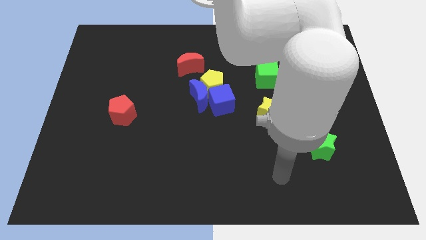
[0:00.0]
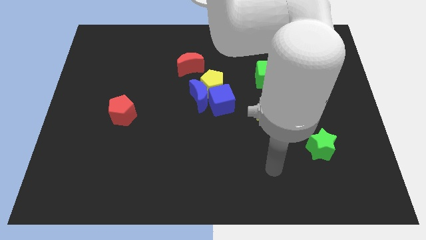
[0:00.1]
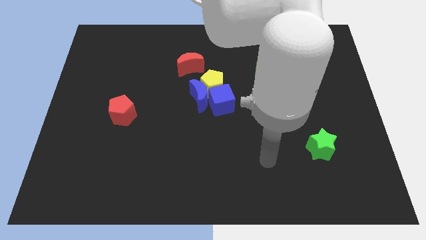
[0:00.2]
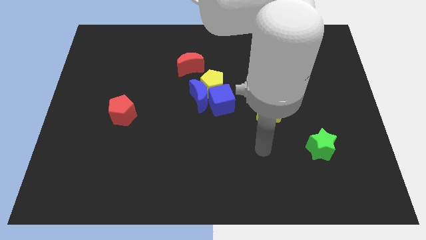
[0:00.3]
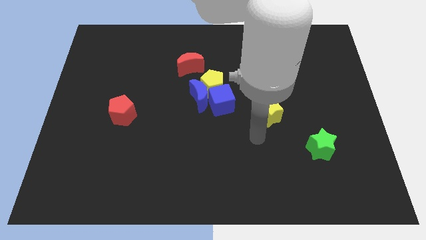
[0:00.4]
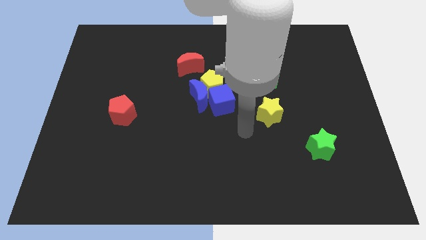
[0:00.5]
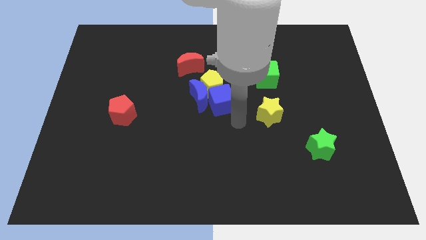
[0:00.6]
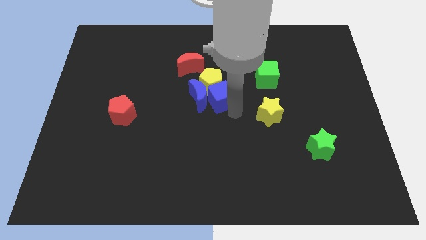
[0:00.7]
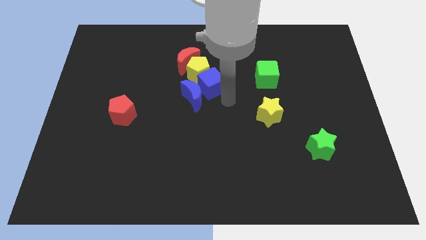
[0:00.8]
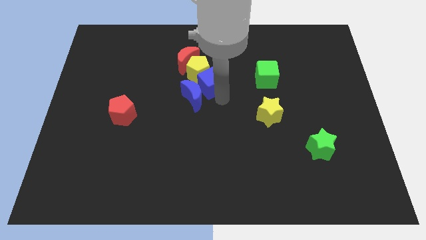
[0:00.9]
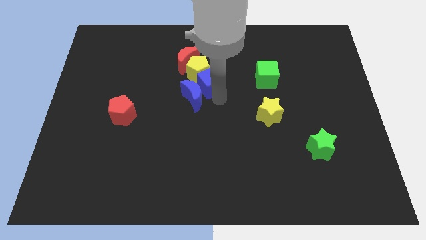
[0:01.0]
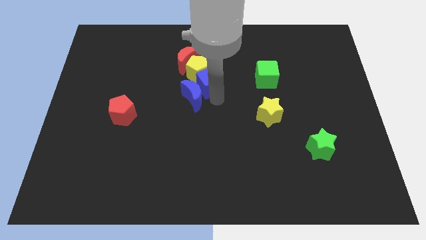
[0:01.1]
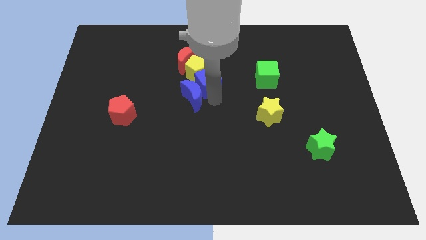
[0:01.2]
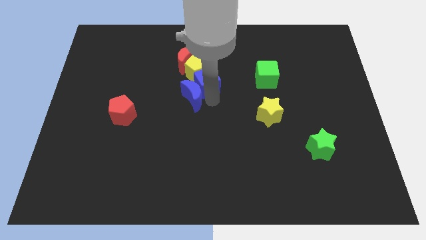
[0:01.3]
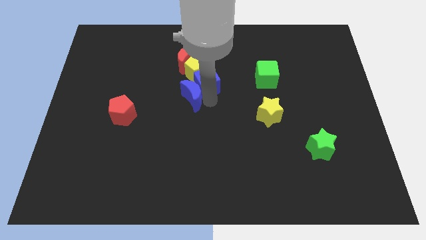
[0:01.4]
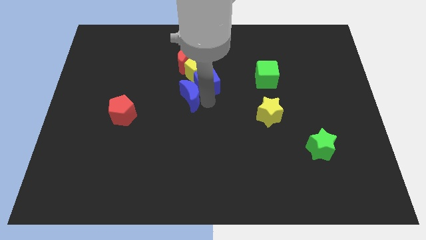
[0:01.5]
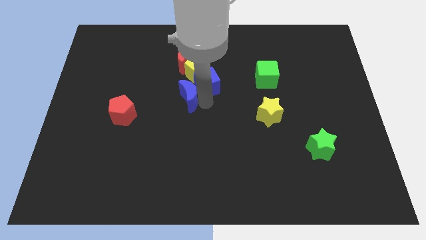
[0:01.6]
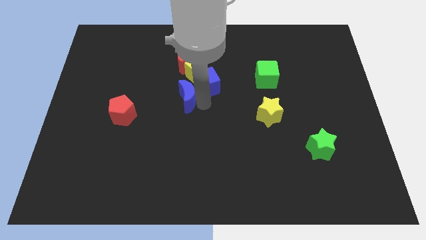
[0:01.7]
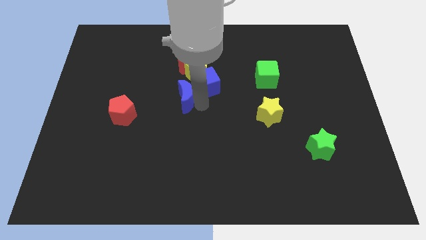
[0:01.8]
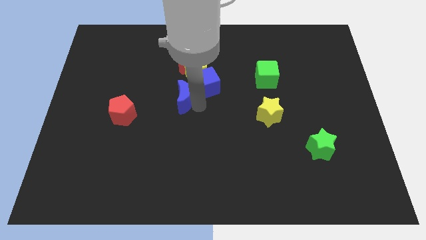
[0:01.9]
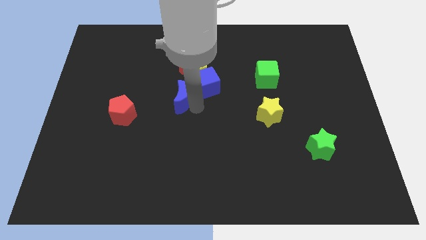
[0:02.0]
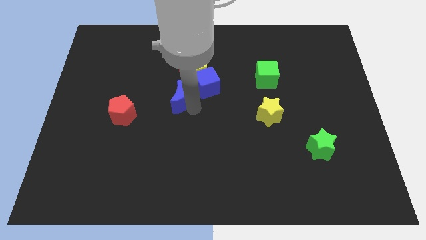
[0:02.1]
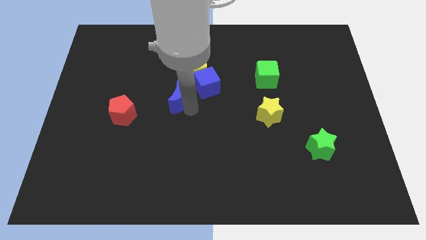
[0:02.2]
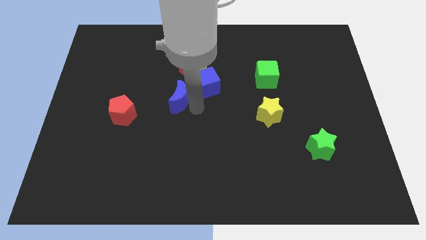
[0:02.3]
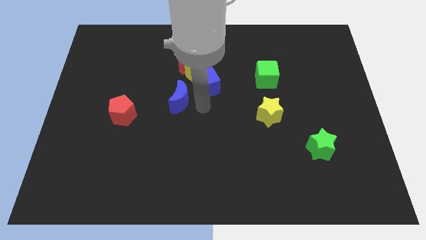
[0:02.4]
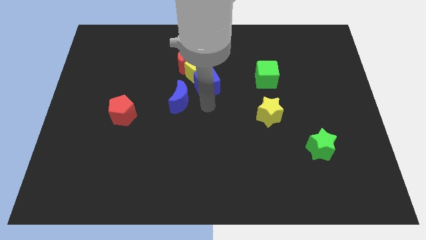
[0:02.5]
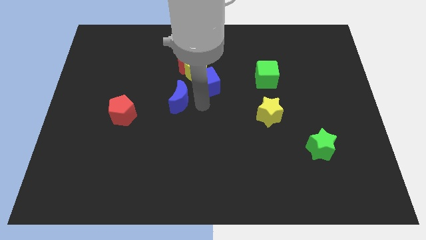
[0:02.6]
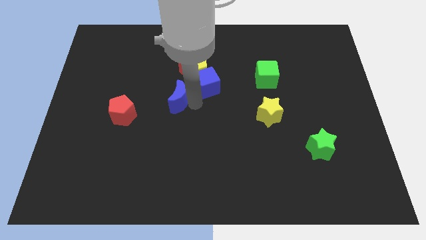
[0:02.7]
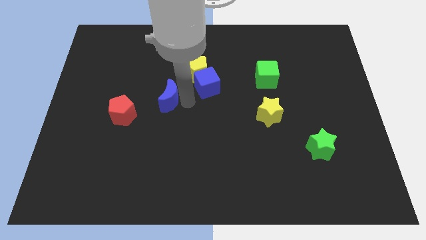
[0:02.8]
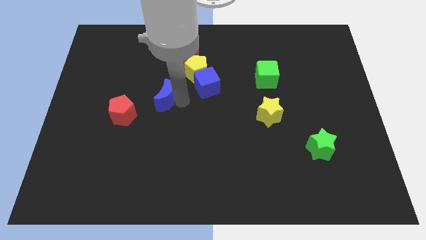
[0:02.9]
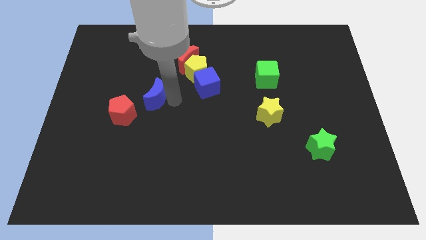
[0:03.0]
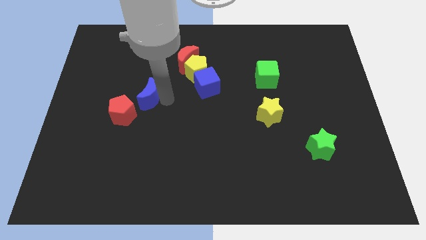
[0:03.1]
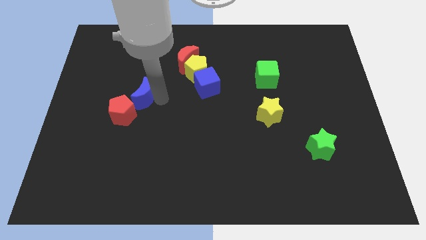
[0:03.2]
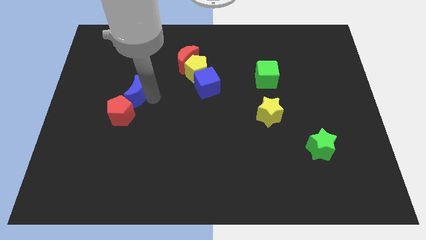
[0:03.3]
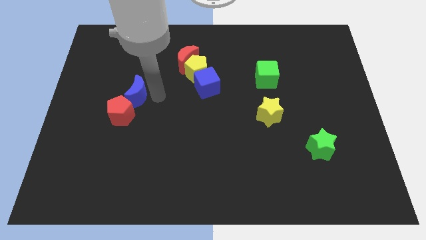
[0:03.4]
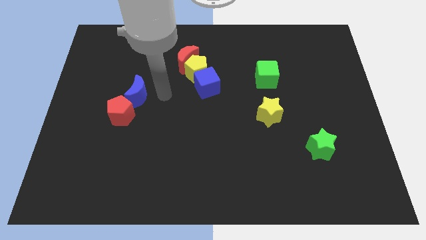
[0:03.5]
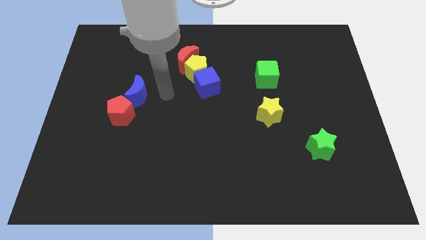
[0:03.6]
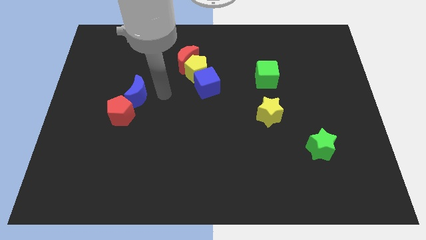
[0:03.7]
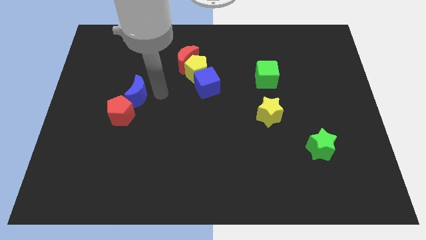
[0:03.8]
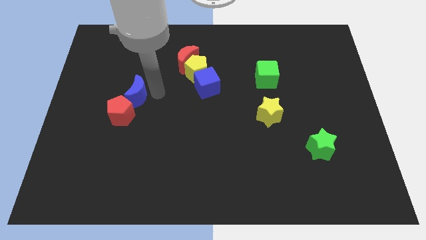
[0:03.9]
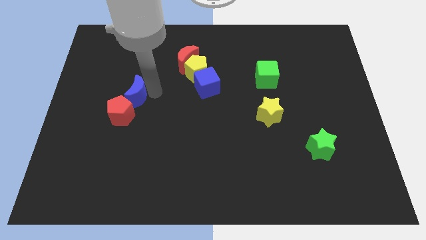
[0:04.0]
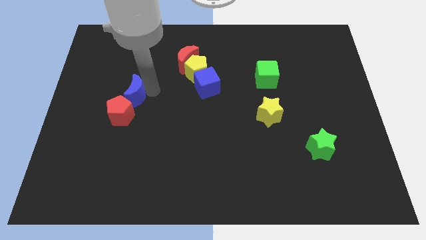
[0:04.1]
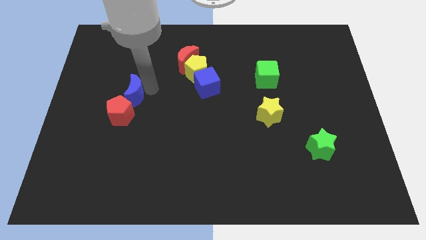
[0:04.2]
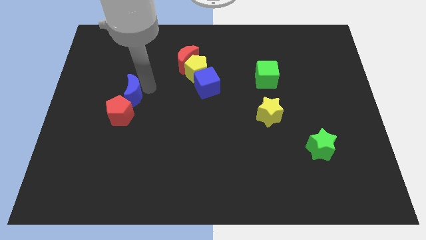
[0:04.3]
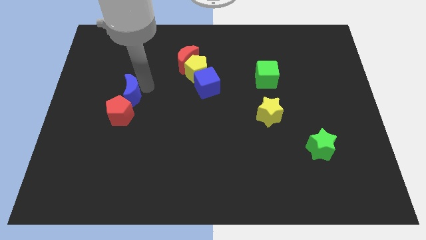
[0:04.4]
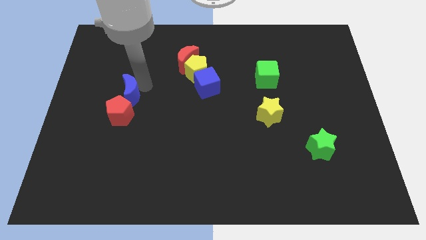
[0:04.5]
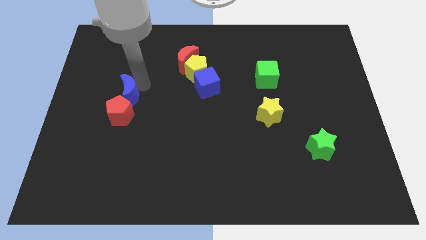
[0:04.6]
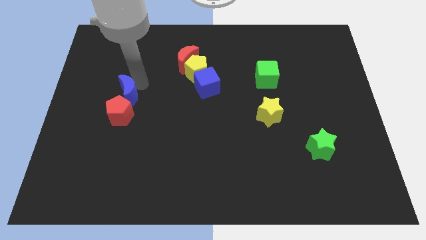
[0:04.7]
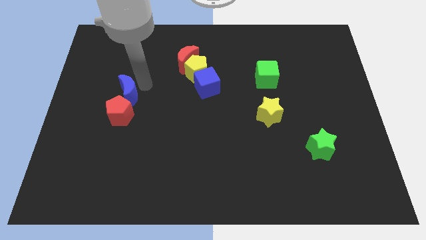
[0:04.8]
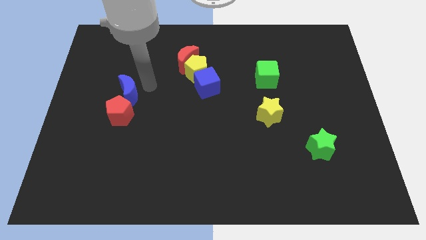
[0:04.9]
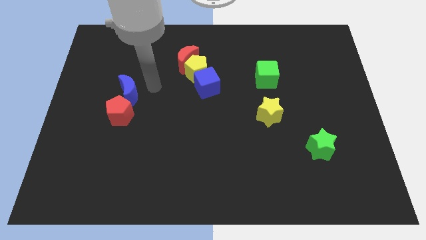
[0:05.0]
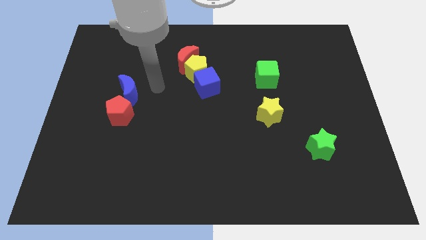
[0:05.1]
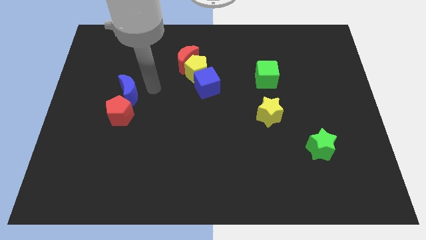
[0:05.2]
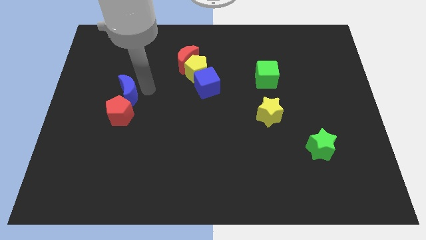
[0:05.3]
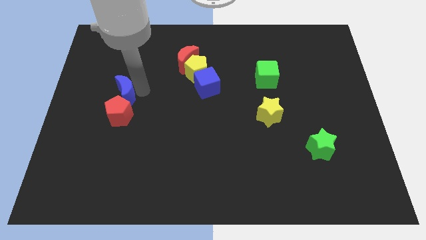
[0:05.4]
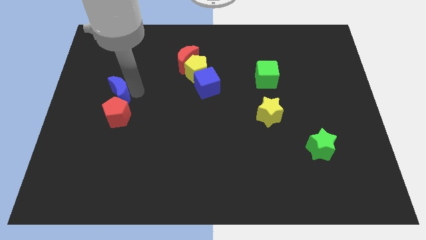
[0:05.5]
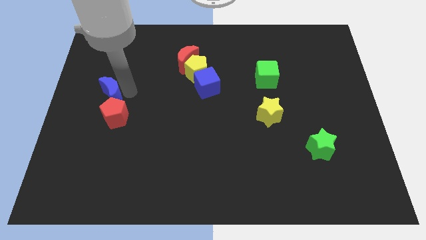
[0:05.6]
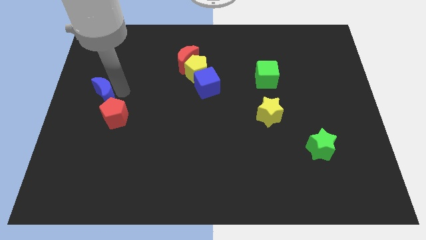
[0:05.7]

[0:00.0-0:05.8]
push the blue moon to the left side of the board
